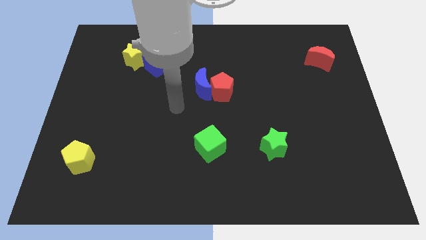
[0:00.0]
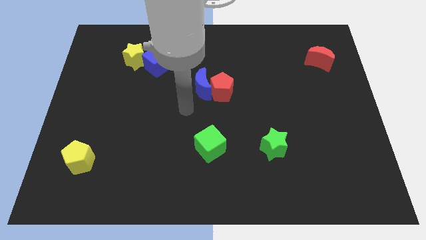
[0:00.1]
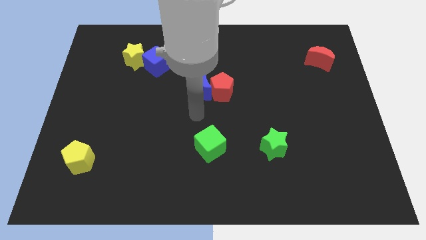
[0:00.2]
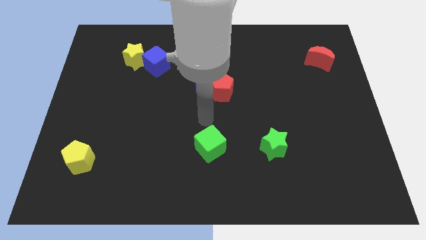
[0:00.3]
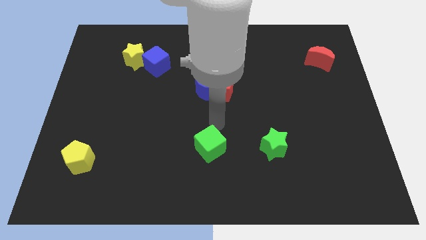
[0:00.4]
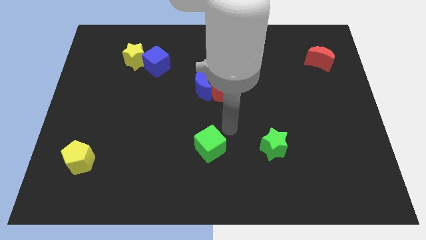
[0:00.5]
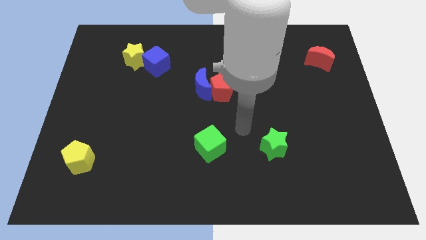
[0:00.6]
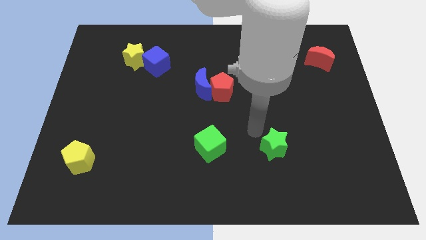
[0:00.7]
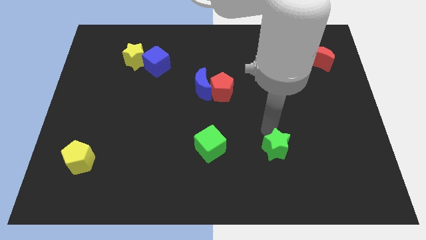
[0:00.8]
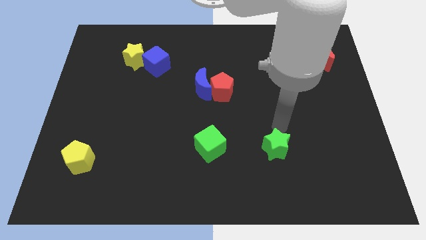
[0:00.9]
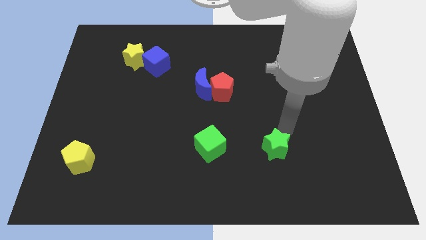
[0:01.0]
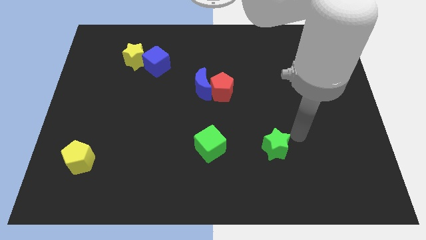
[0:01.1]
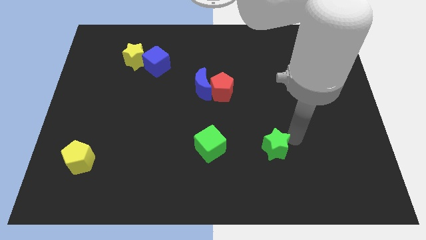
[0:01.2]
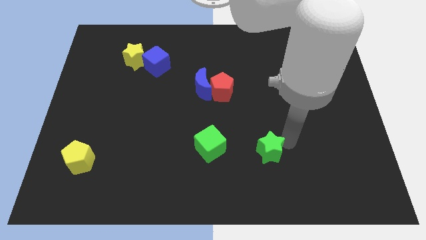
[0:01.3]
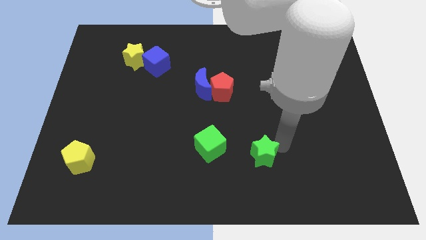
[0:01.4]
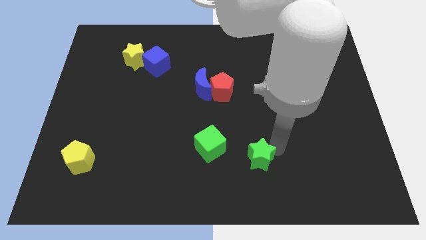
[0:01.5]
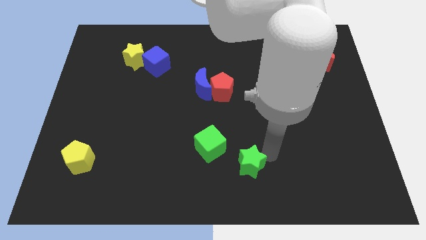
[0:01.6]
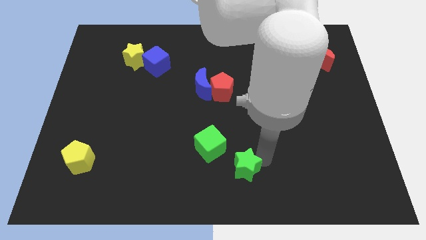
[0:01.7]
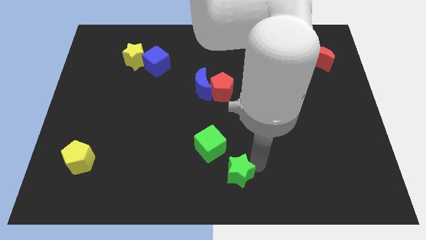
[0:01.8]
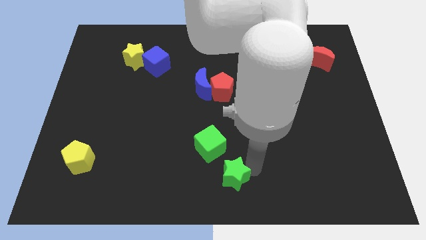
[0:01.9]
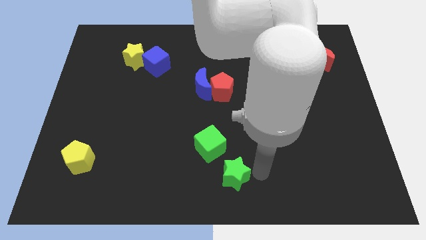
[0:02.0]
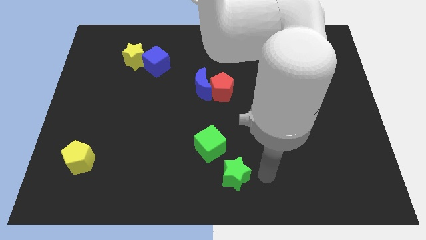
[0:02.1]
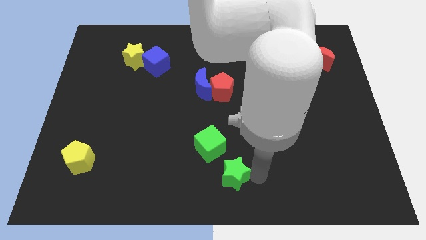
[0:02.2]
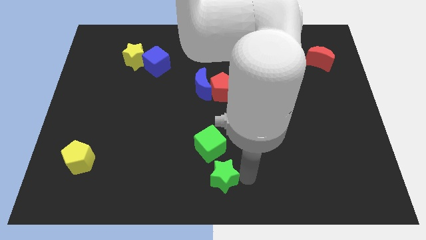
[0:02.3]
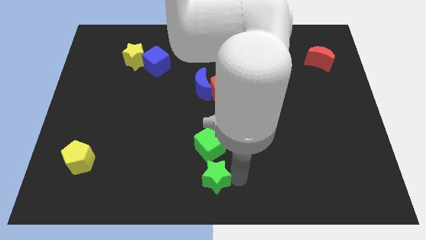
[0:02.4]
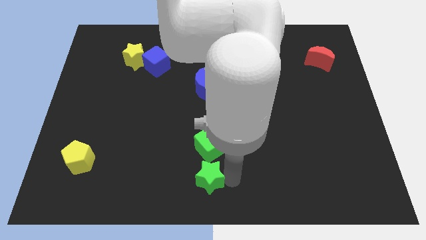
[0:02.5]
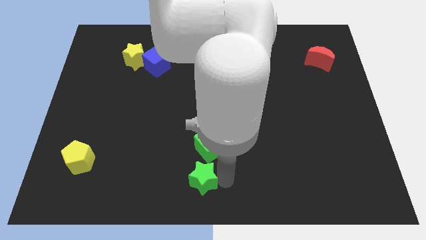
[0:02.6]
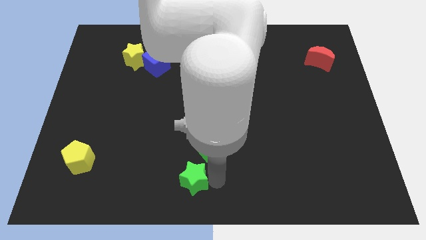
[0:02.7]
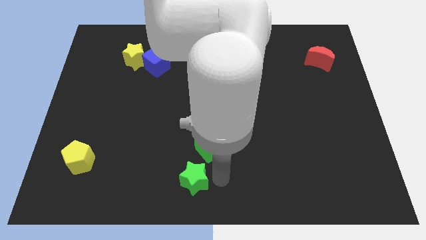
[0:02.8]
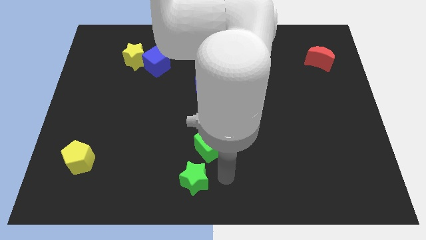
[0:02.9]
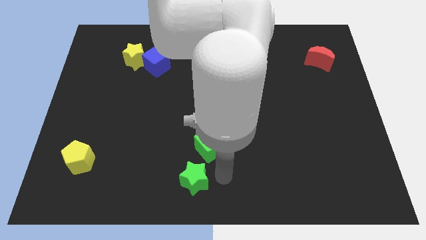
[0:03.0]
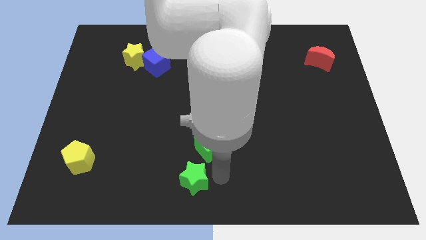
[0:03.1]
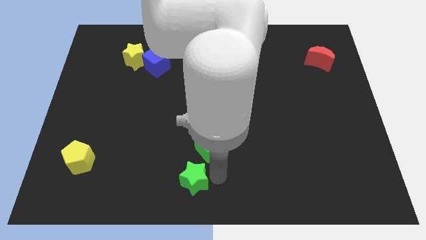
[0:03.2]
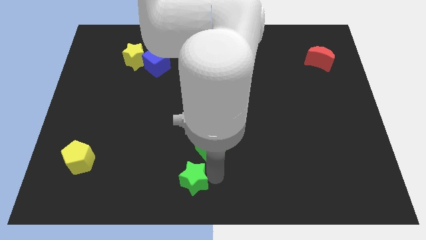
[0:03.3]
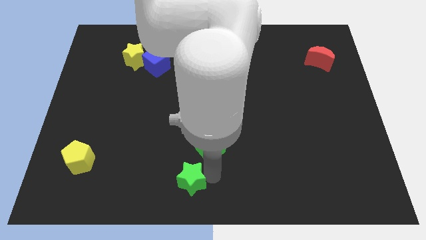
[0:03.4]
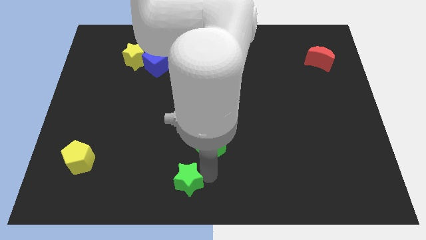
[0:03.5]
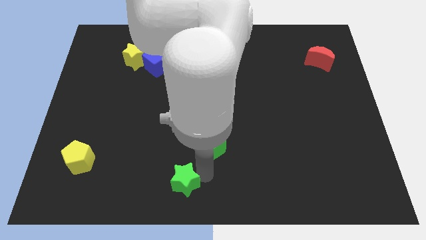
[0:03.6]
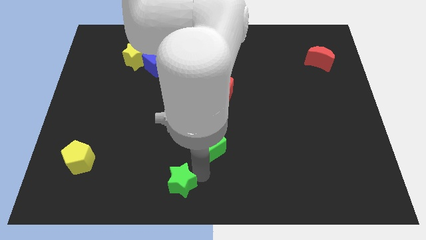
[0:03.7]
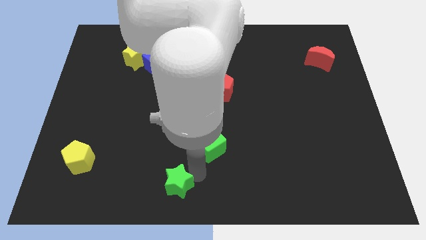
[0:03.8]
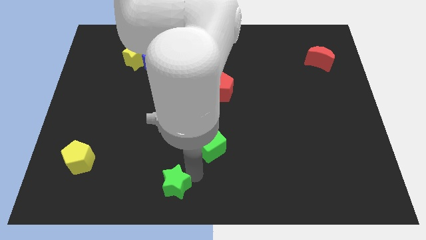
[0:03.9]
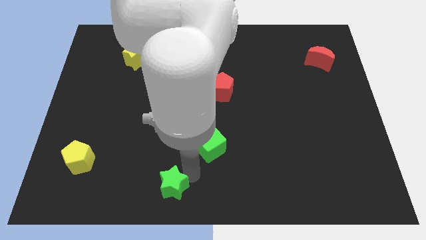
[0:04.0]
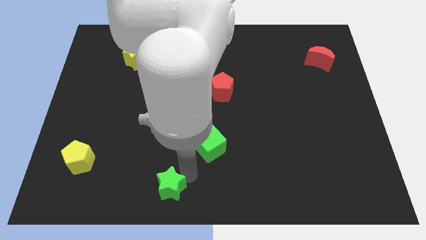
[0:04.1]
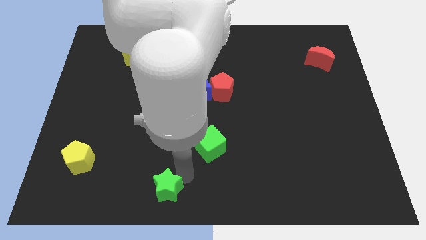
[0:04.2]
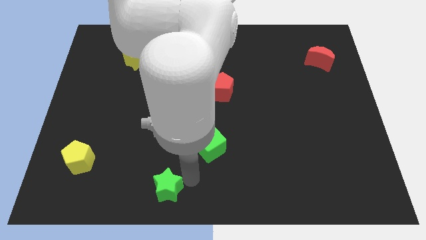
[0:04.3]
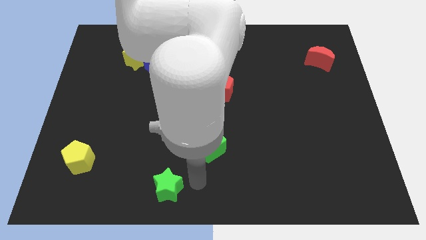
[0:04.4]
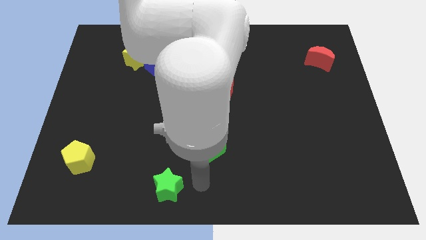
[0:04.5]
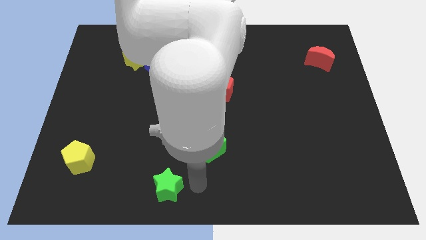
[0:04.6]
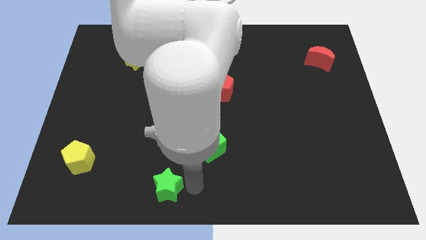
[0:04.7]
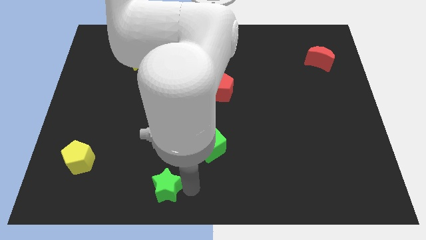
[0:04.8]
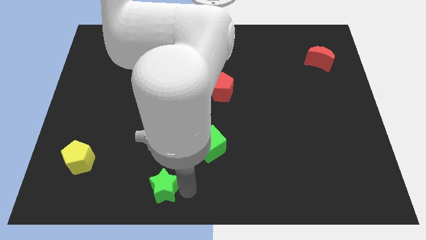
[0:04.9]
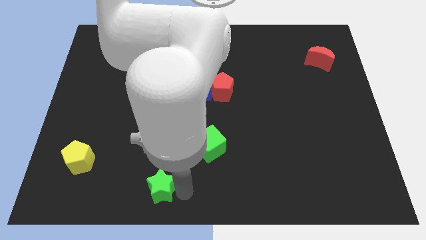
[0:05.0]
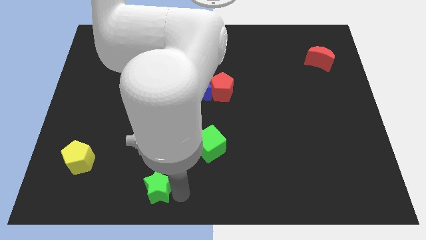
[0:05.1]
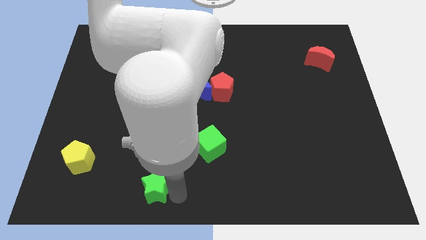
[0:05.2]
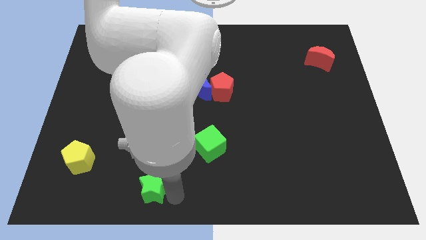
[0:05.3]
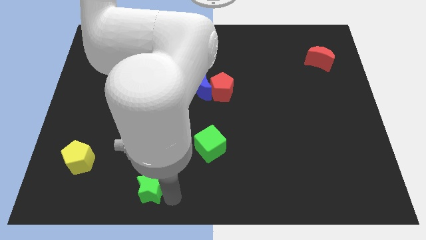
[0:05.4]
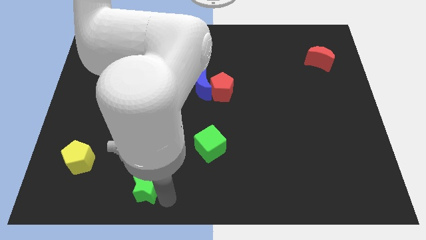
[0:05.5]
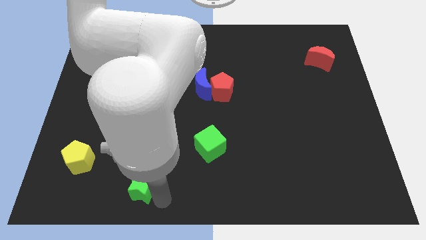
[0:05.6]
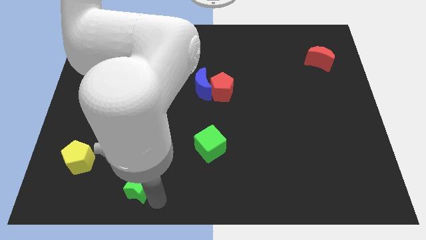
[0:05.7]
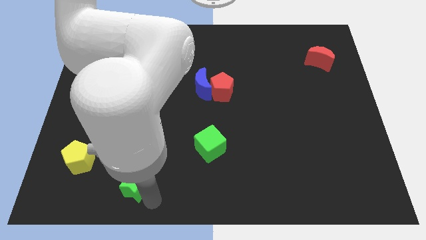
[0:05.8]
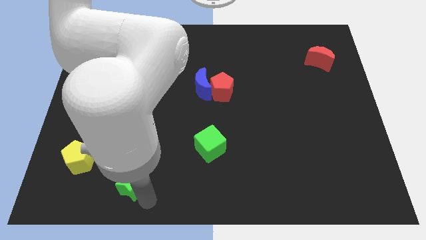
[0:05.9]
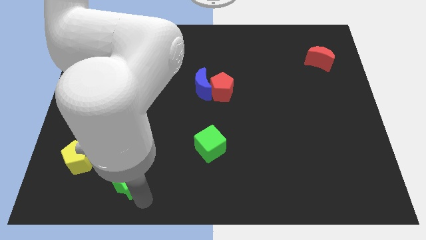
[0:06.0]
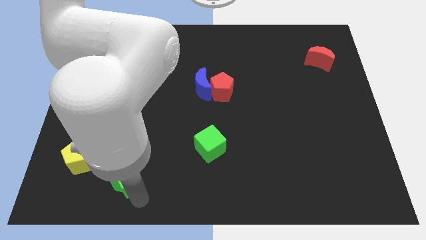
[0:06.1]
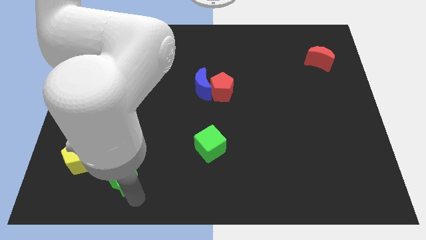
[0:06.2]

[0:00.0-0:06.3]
slide the green star diagonally down and to the right of the yellow pentagon

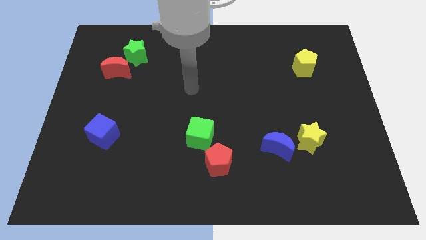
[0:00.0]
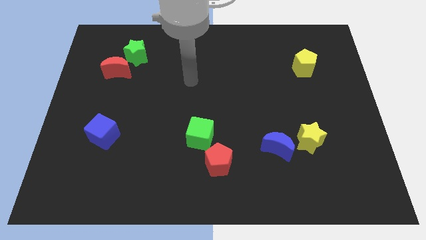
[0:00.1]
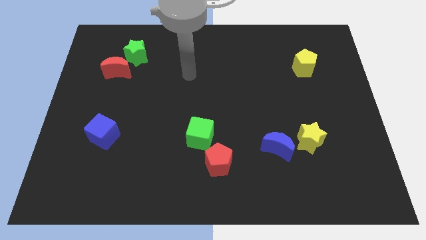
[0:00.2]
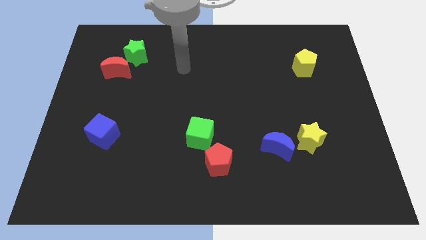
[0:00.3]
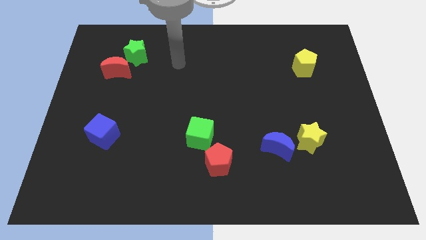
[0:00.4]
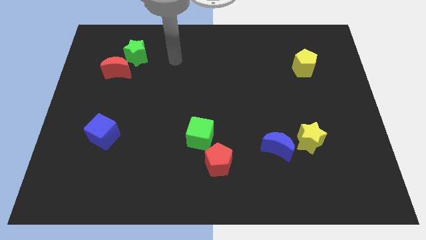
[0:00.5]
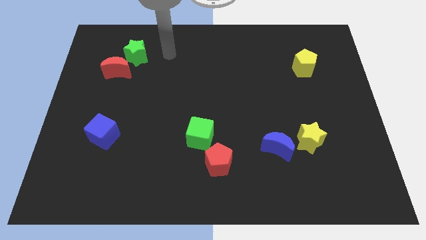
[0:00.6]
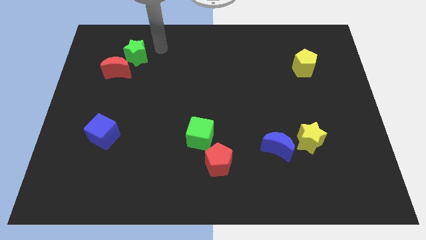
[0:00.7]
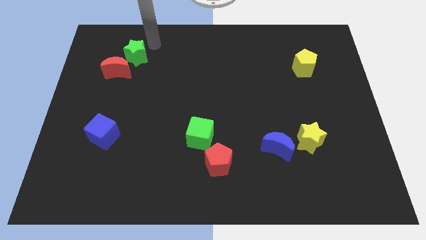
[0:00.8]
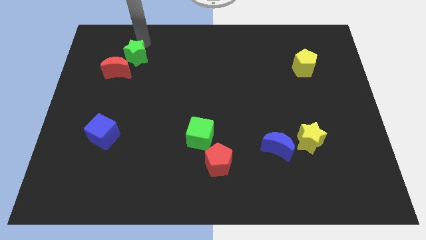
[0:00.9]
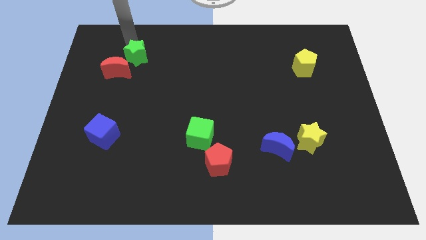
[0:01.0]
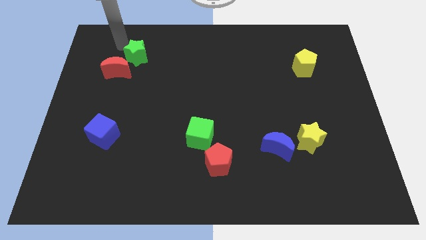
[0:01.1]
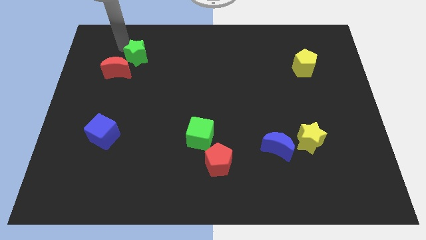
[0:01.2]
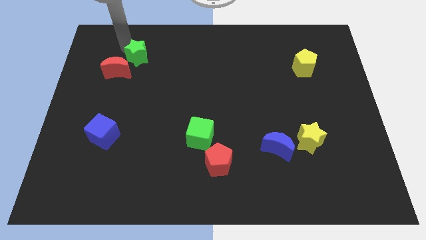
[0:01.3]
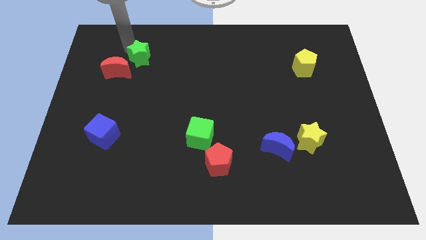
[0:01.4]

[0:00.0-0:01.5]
move the green star to the right side of the red moon

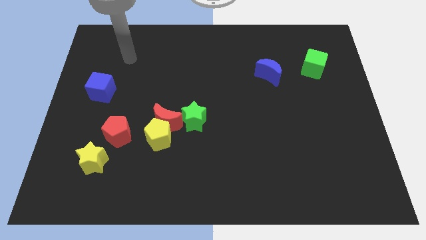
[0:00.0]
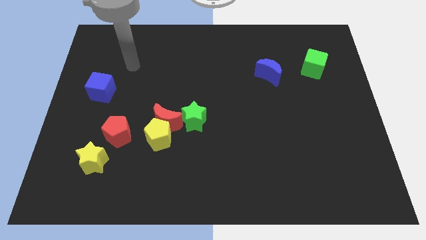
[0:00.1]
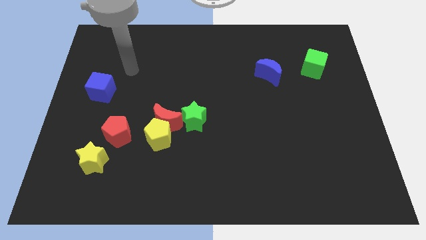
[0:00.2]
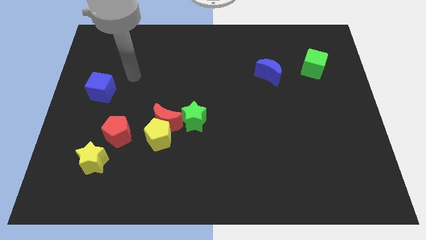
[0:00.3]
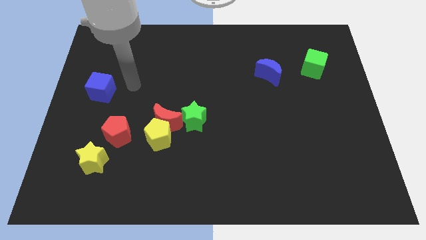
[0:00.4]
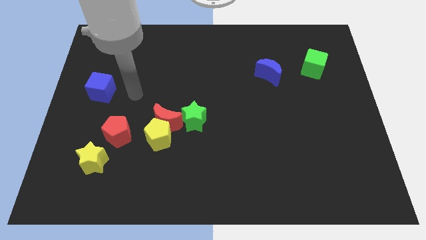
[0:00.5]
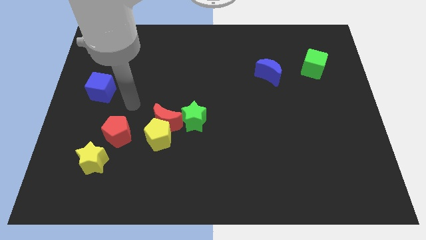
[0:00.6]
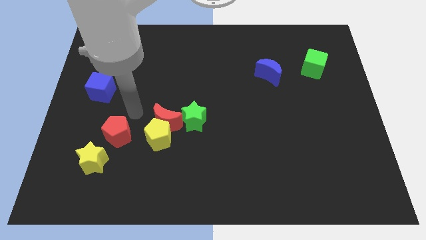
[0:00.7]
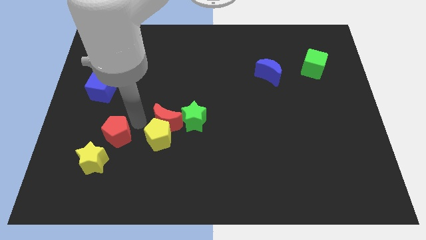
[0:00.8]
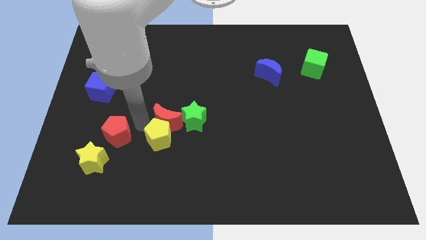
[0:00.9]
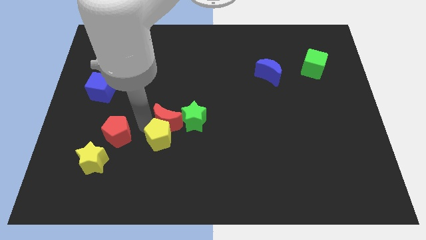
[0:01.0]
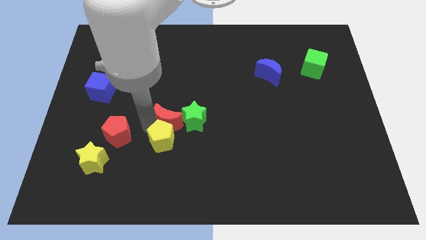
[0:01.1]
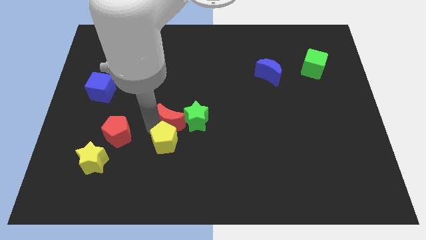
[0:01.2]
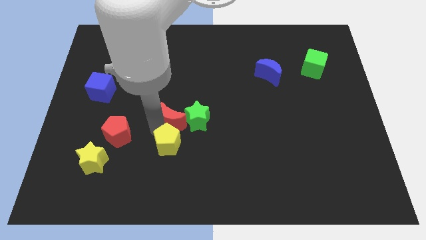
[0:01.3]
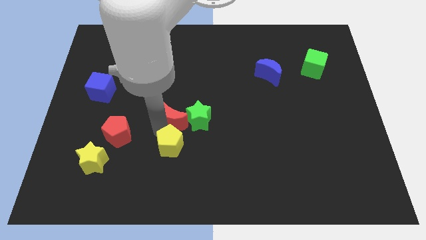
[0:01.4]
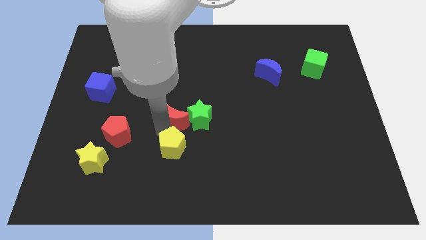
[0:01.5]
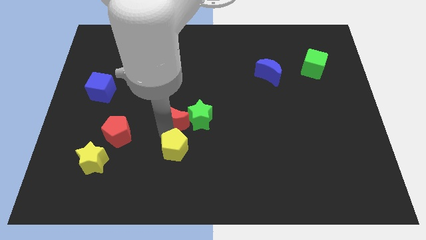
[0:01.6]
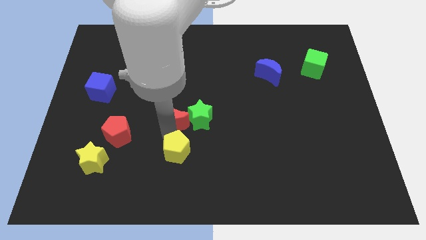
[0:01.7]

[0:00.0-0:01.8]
put the yellow pentagon below the green star
